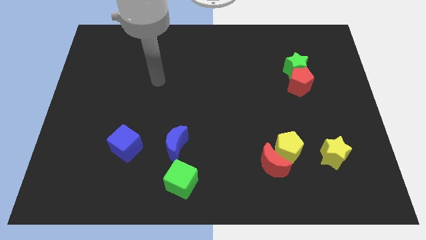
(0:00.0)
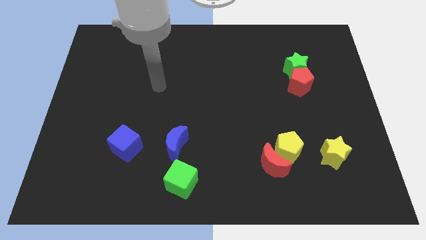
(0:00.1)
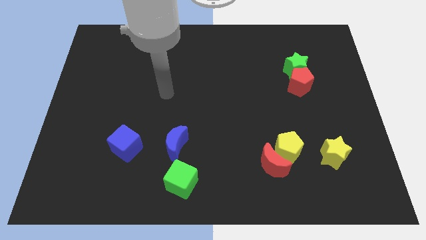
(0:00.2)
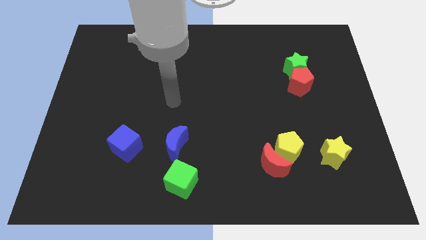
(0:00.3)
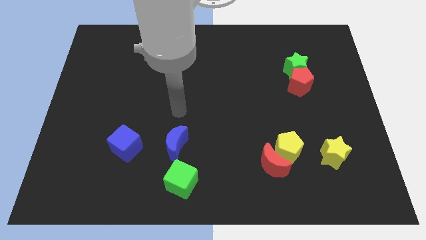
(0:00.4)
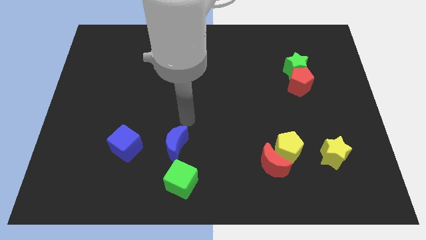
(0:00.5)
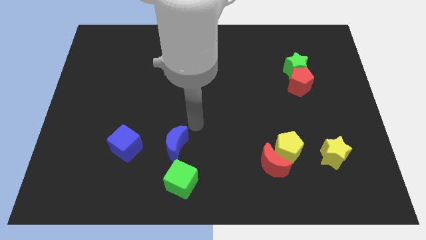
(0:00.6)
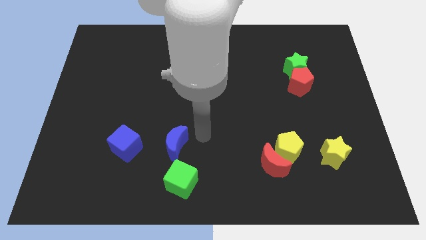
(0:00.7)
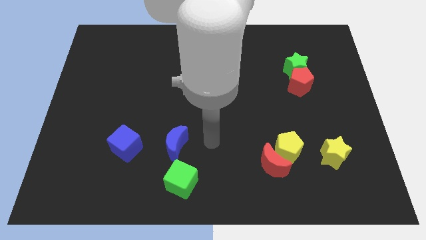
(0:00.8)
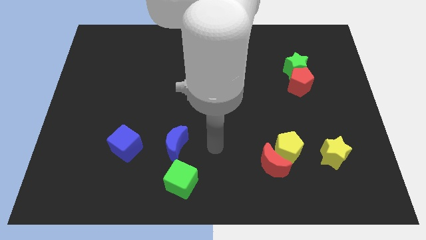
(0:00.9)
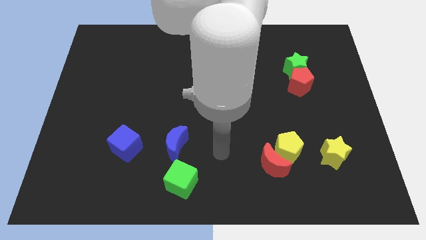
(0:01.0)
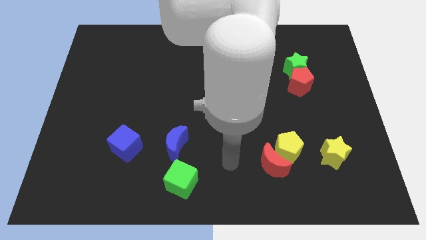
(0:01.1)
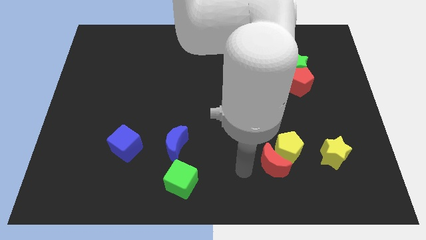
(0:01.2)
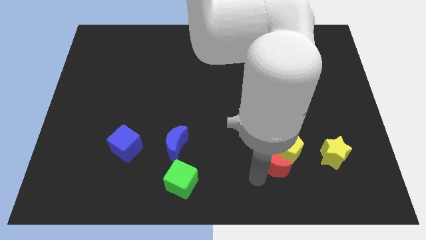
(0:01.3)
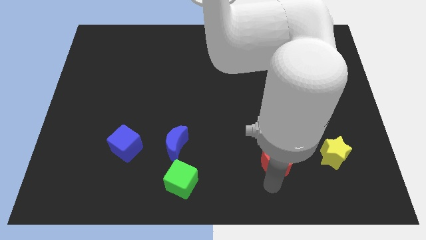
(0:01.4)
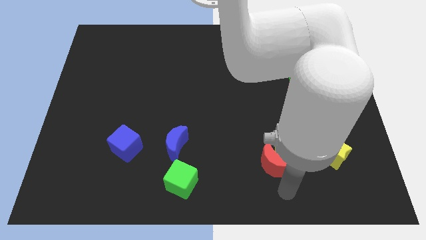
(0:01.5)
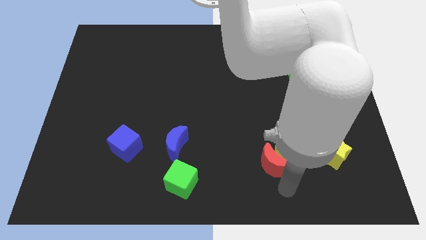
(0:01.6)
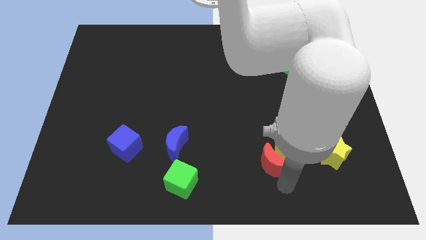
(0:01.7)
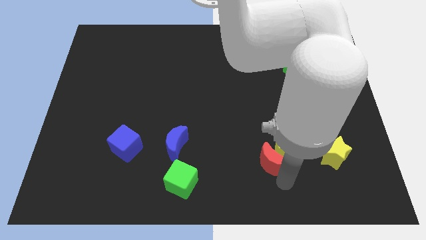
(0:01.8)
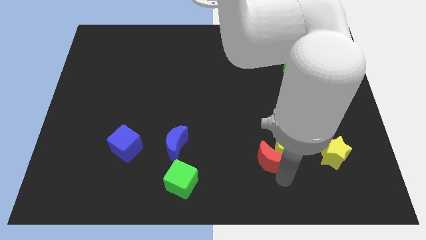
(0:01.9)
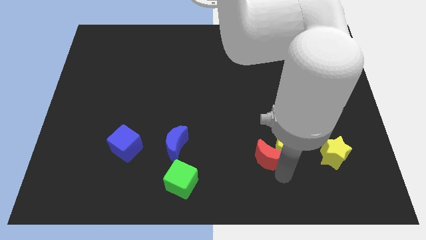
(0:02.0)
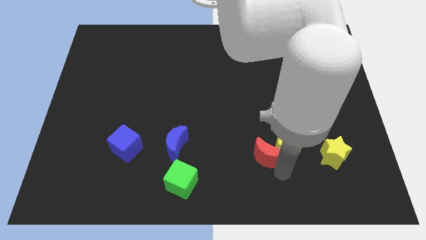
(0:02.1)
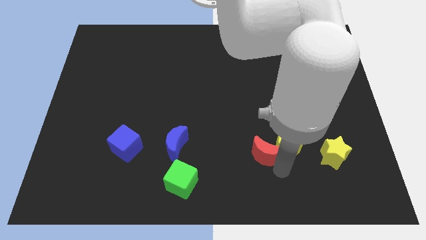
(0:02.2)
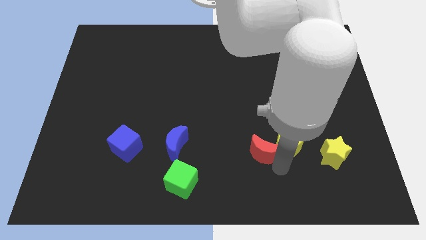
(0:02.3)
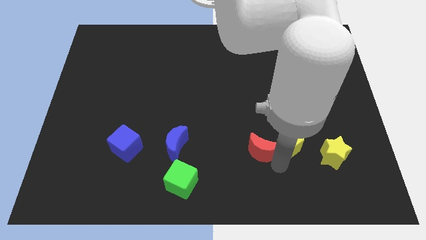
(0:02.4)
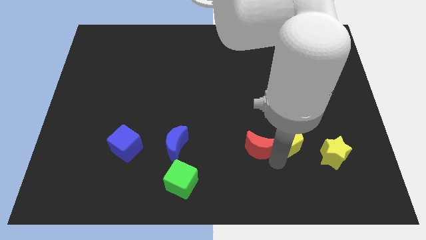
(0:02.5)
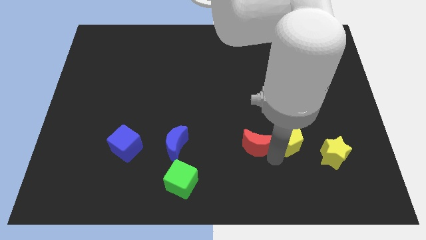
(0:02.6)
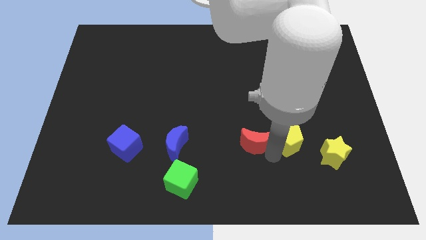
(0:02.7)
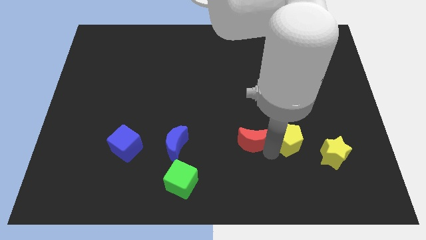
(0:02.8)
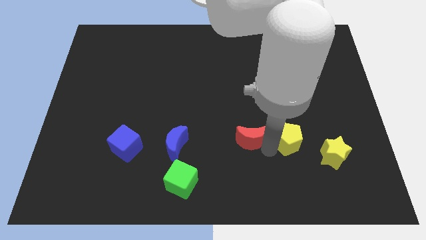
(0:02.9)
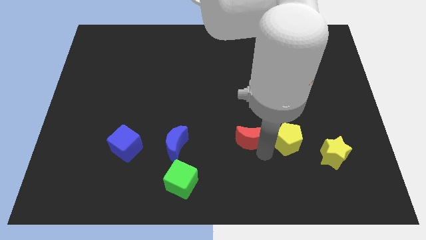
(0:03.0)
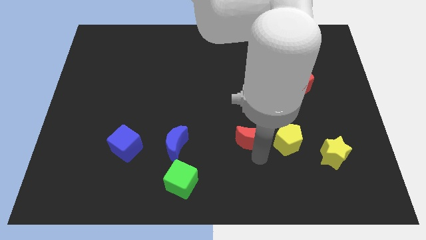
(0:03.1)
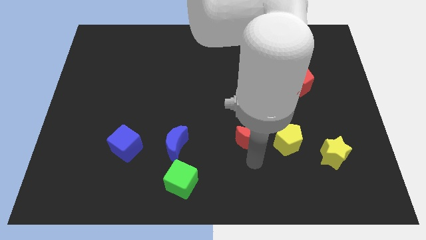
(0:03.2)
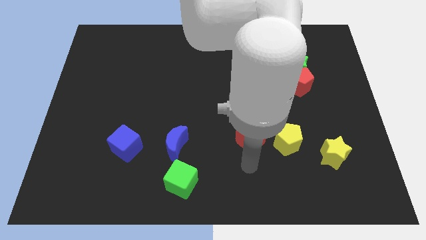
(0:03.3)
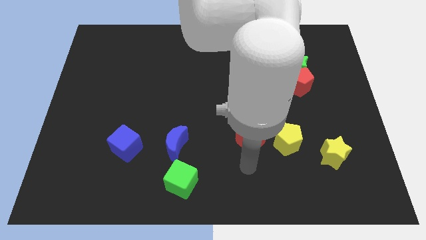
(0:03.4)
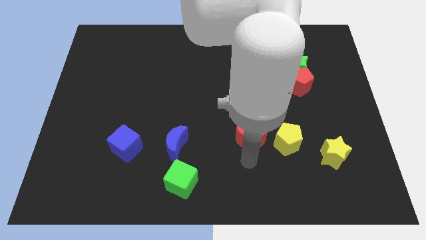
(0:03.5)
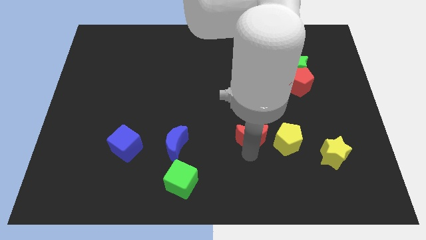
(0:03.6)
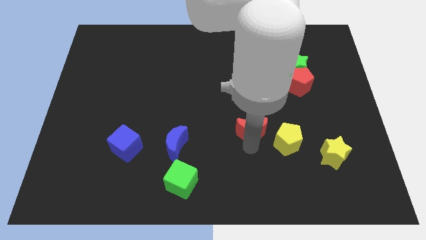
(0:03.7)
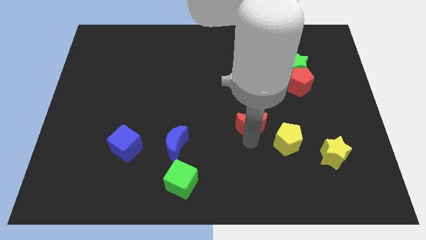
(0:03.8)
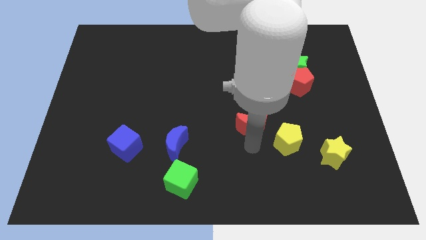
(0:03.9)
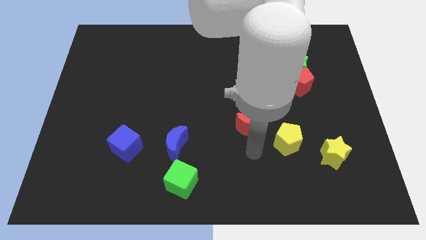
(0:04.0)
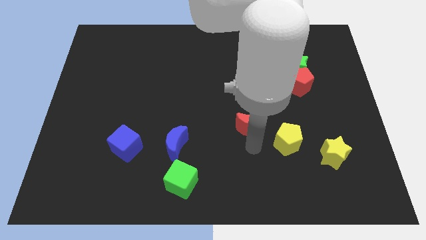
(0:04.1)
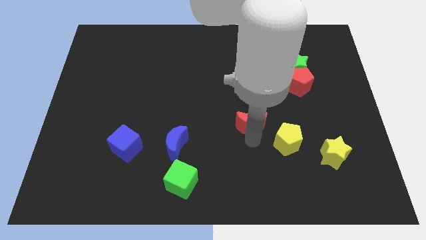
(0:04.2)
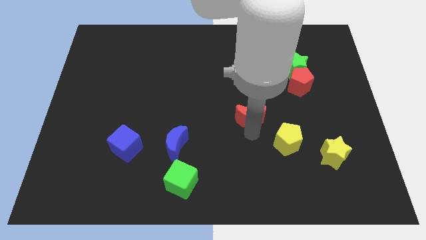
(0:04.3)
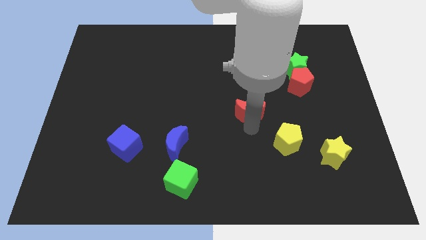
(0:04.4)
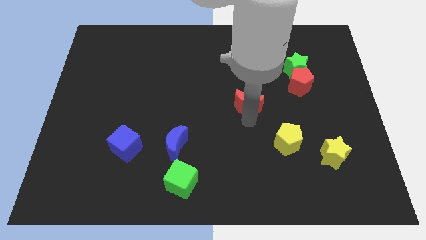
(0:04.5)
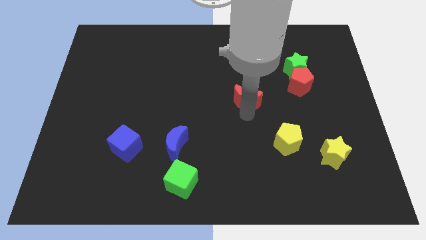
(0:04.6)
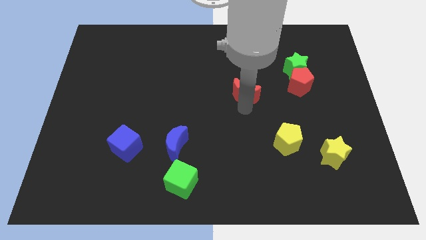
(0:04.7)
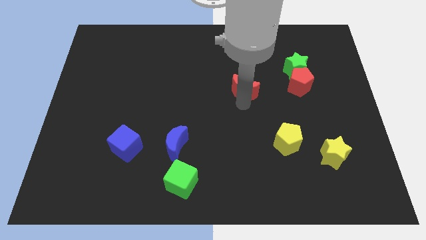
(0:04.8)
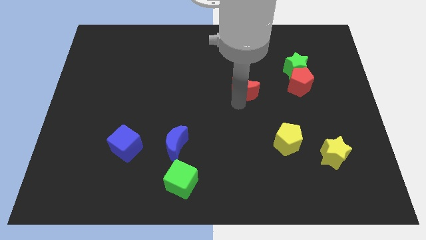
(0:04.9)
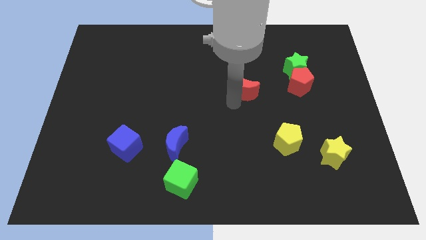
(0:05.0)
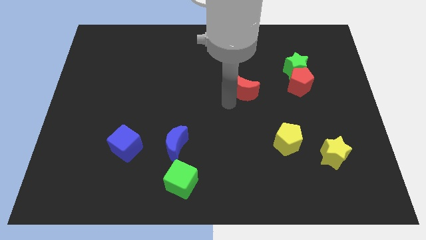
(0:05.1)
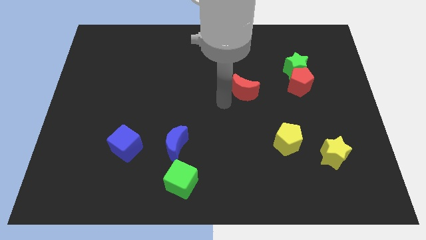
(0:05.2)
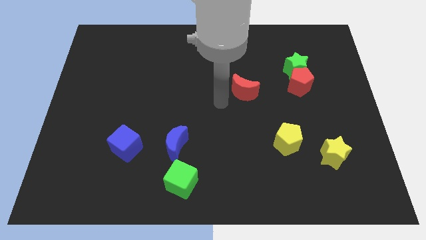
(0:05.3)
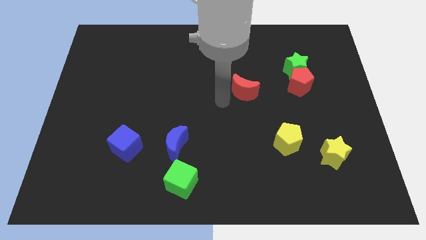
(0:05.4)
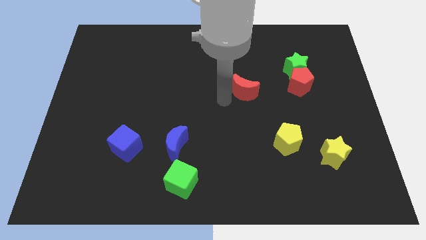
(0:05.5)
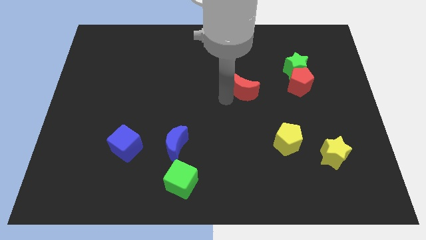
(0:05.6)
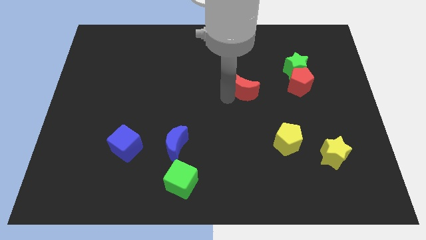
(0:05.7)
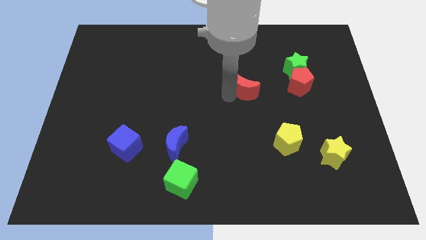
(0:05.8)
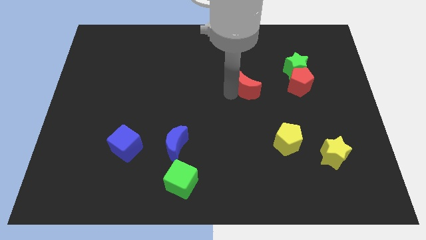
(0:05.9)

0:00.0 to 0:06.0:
slide the red moon up

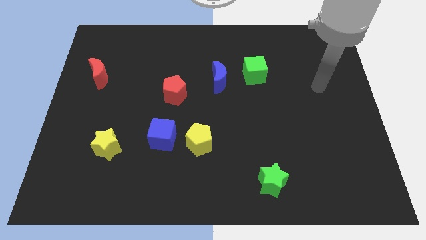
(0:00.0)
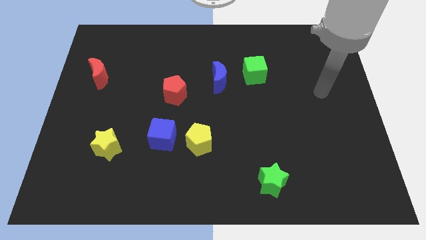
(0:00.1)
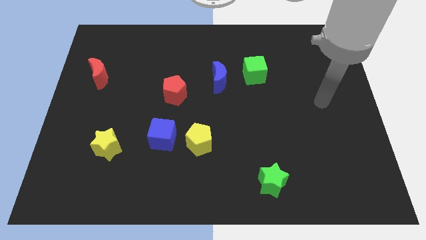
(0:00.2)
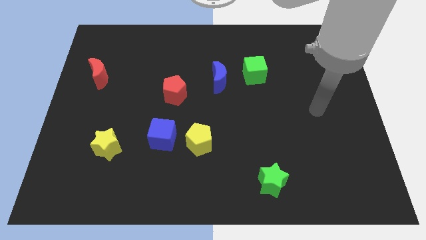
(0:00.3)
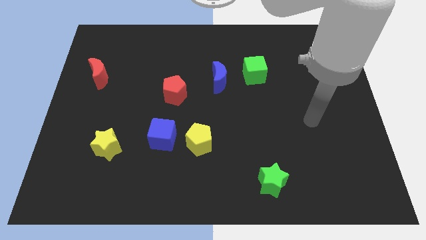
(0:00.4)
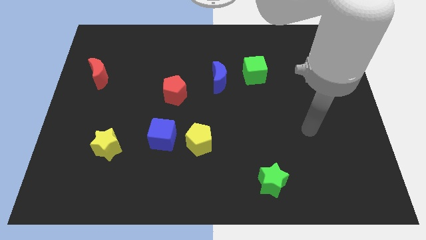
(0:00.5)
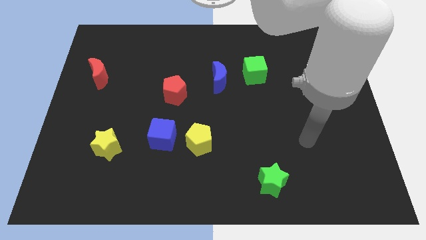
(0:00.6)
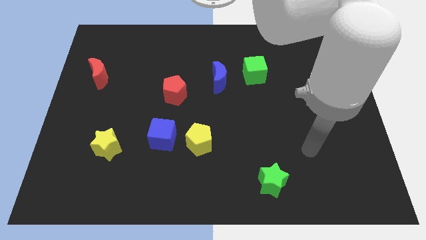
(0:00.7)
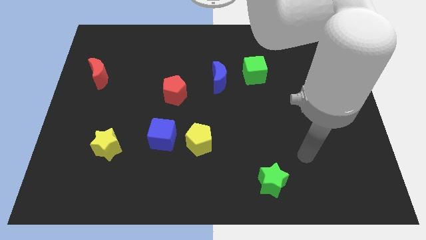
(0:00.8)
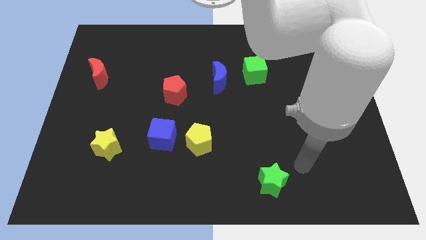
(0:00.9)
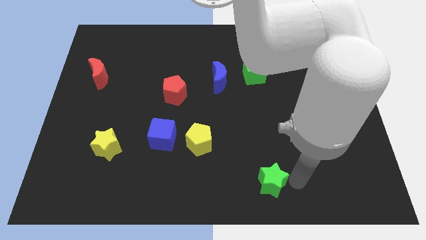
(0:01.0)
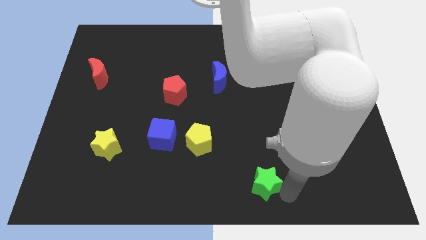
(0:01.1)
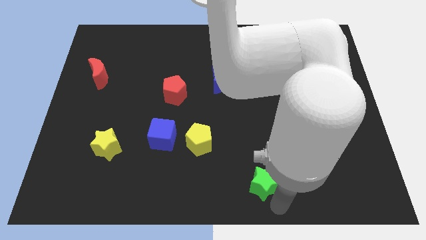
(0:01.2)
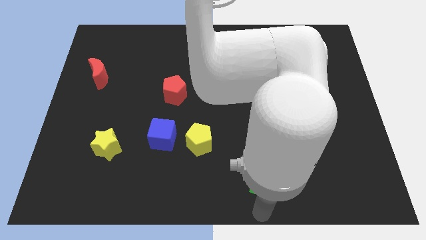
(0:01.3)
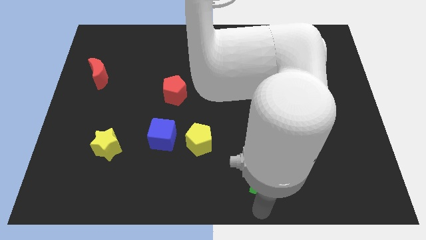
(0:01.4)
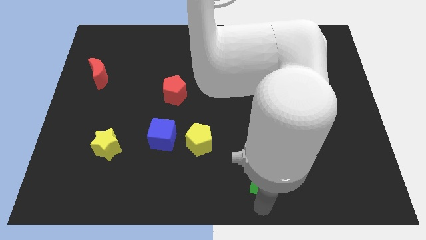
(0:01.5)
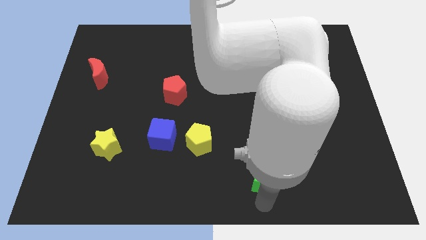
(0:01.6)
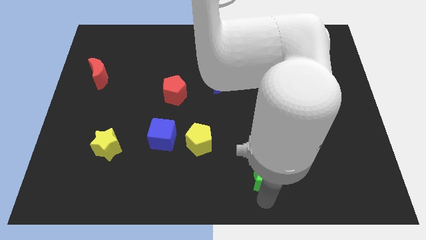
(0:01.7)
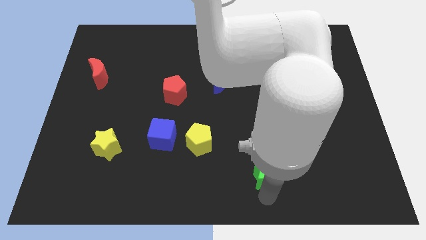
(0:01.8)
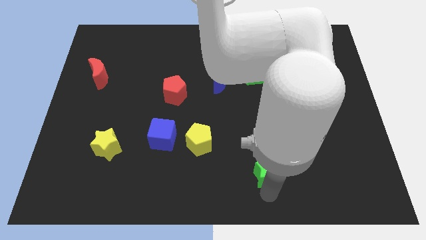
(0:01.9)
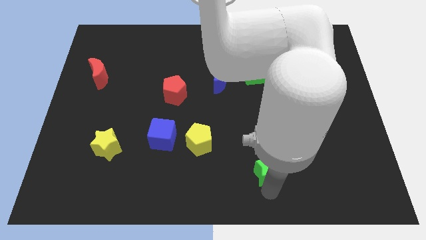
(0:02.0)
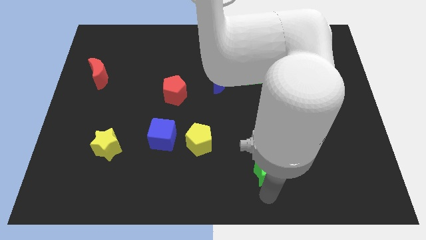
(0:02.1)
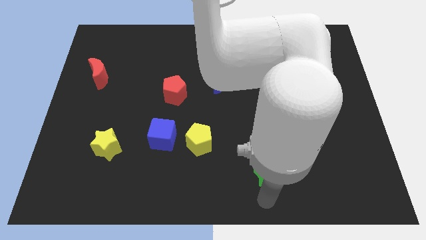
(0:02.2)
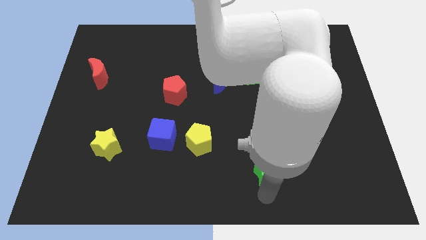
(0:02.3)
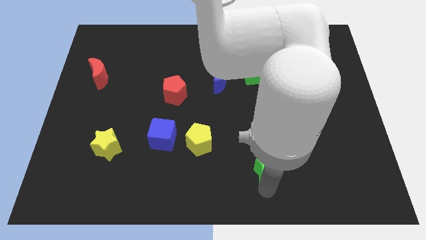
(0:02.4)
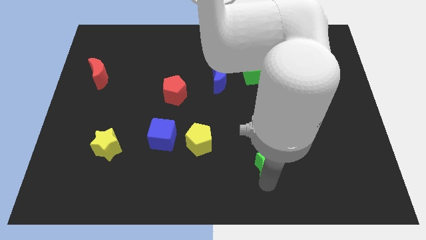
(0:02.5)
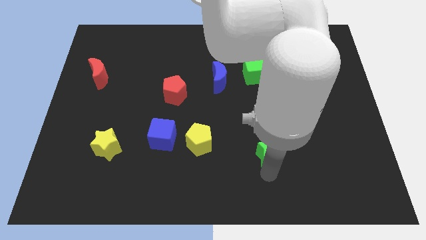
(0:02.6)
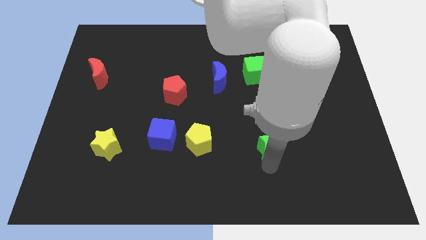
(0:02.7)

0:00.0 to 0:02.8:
slide the green star upwards a bit
